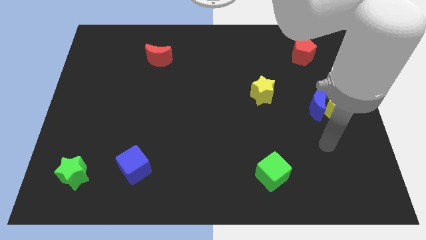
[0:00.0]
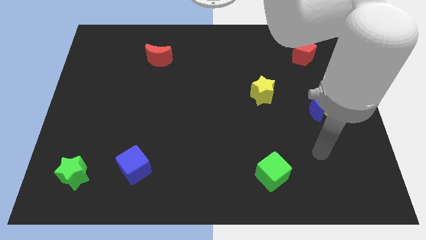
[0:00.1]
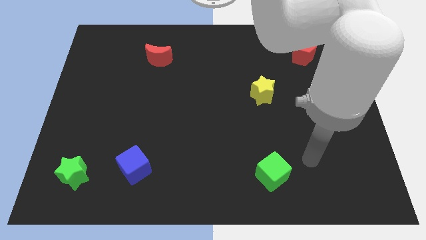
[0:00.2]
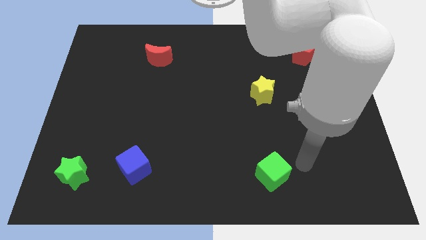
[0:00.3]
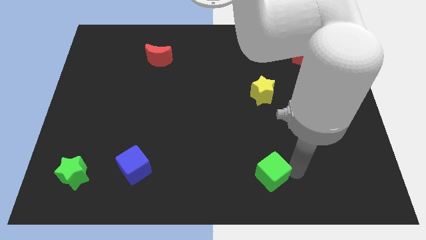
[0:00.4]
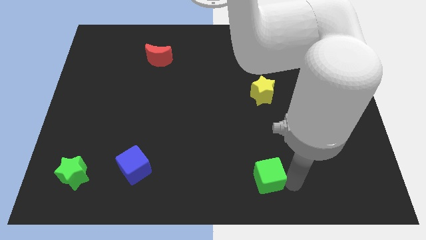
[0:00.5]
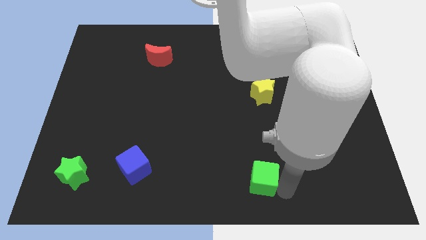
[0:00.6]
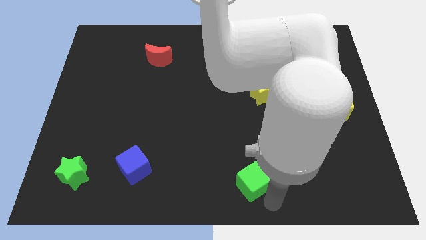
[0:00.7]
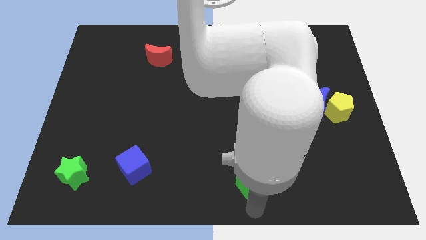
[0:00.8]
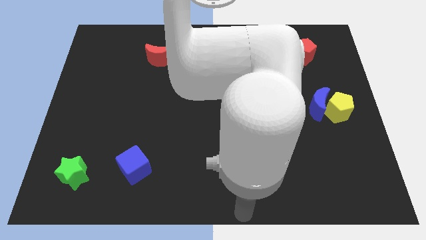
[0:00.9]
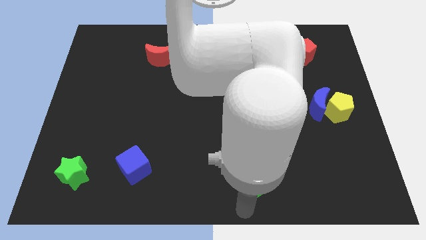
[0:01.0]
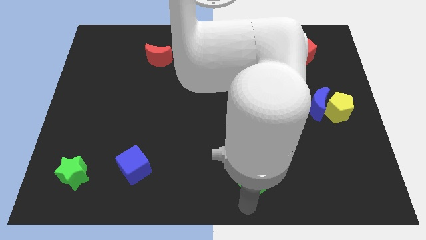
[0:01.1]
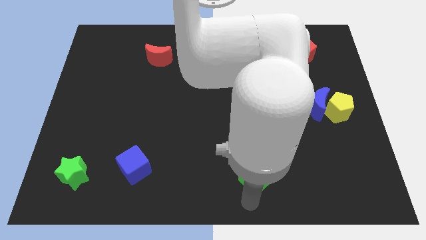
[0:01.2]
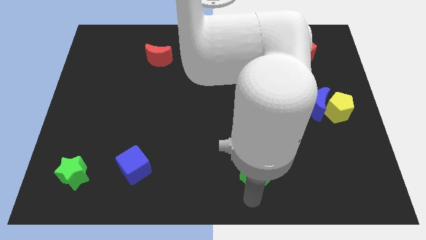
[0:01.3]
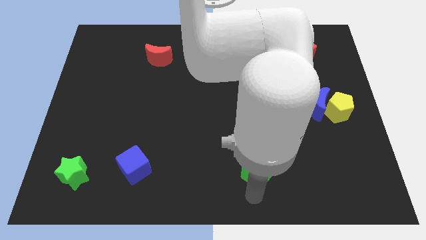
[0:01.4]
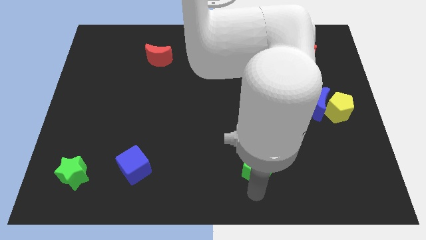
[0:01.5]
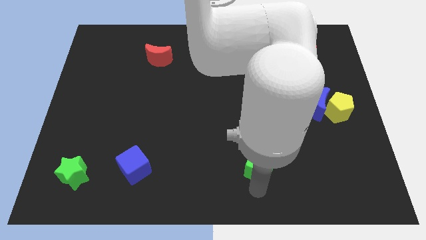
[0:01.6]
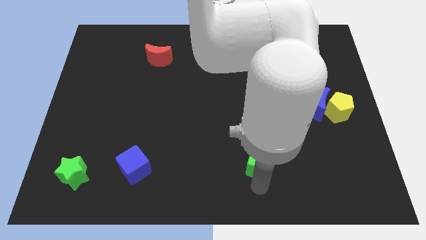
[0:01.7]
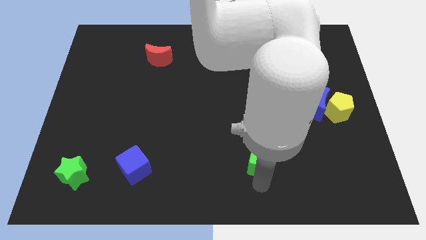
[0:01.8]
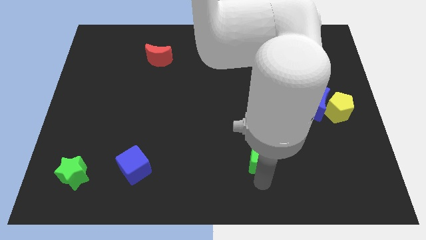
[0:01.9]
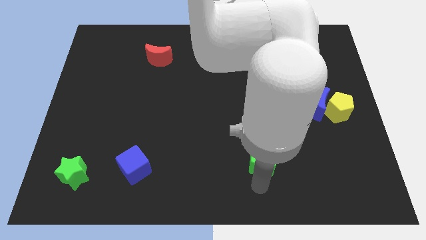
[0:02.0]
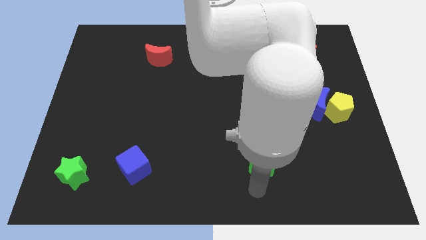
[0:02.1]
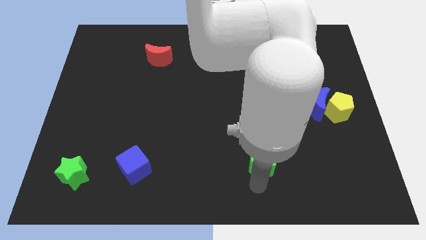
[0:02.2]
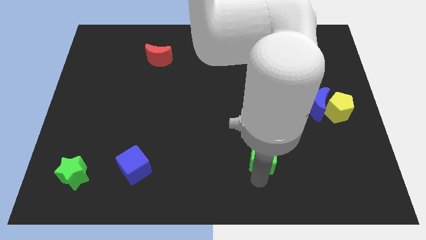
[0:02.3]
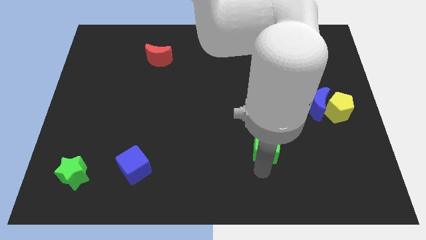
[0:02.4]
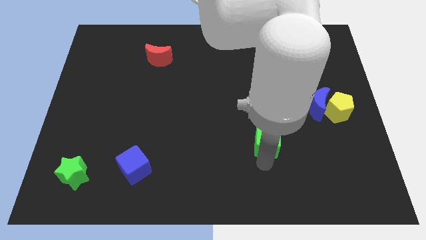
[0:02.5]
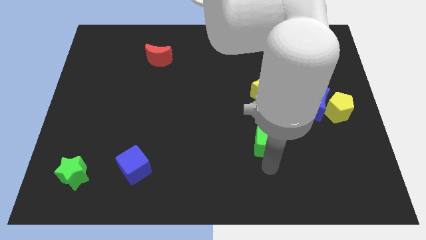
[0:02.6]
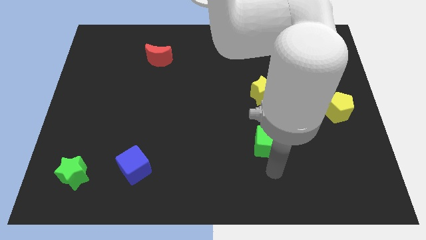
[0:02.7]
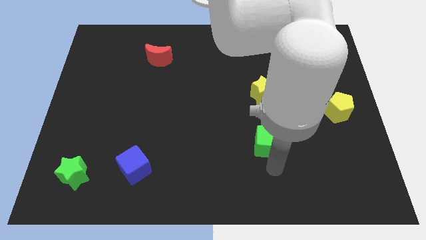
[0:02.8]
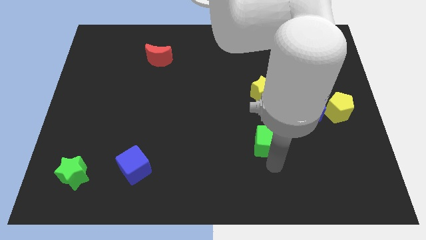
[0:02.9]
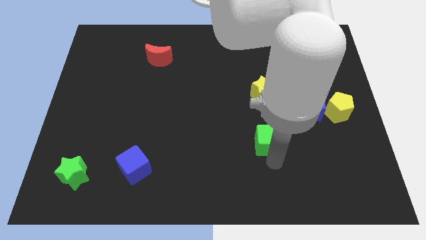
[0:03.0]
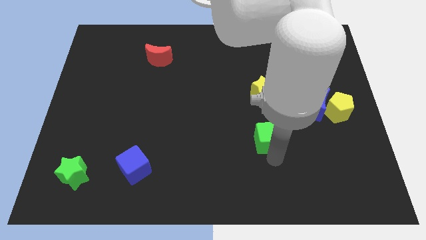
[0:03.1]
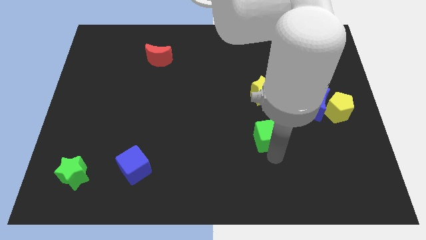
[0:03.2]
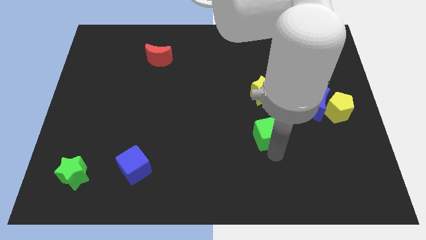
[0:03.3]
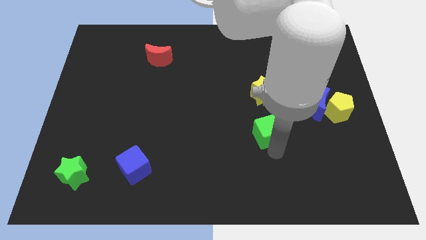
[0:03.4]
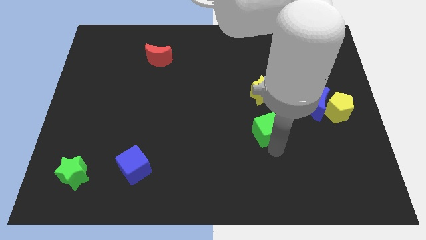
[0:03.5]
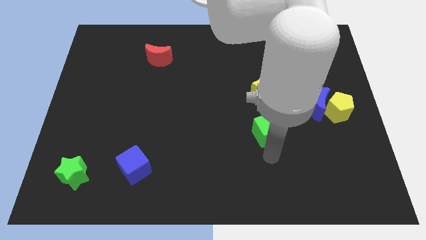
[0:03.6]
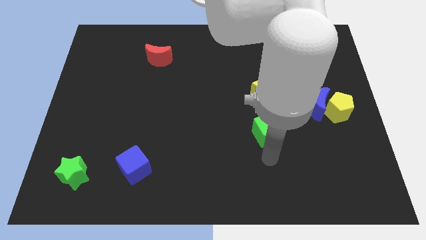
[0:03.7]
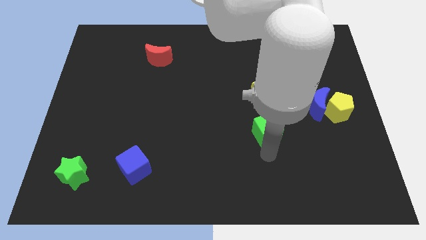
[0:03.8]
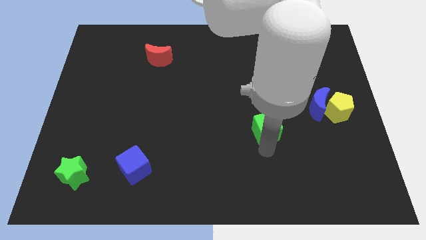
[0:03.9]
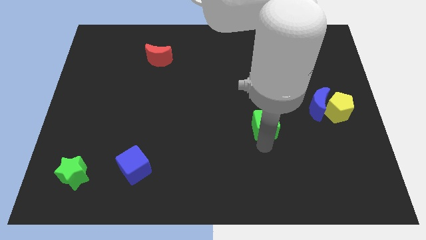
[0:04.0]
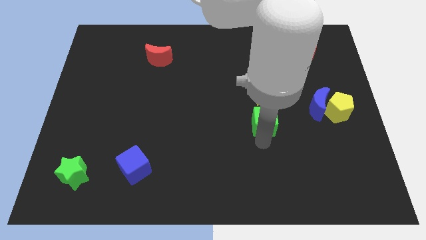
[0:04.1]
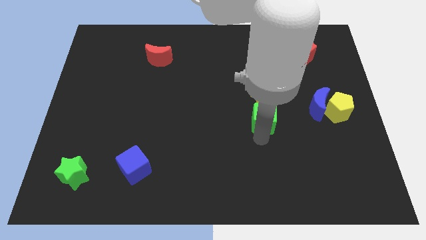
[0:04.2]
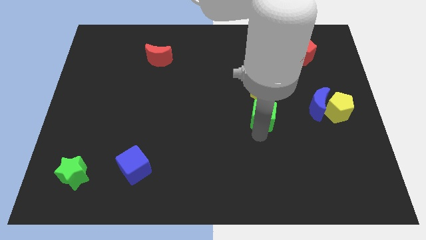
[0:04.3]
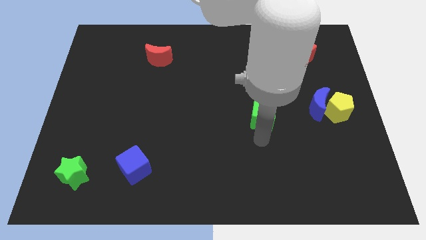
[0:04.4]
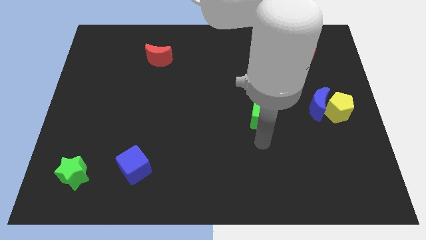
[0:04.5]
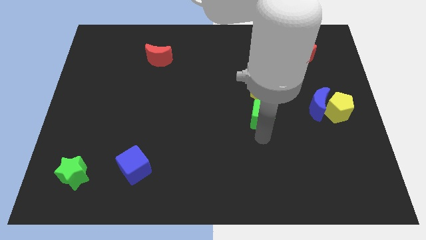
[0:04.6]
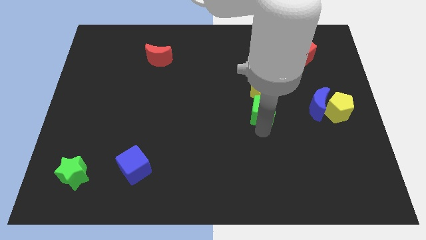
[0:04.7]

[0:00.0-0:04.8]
put the green cube towards the yellow star

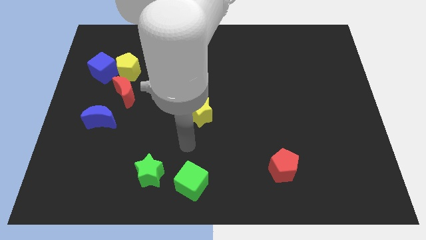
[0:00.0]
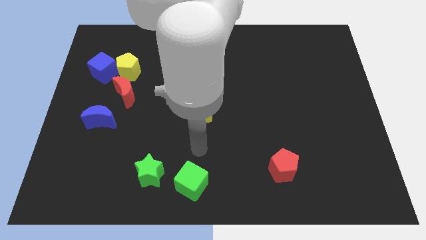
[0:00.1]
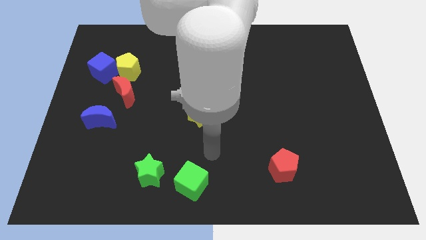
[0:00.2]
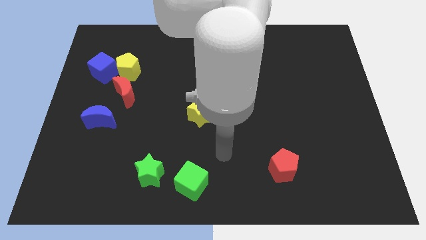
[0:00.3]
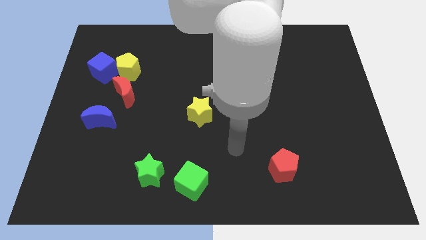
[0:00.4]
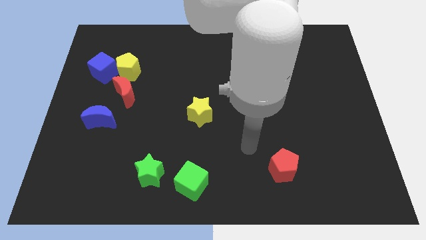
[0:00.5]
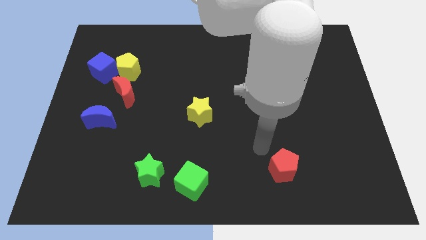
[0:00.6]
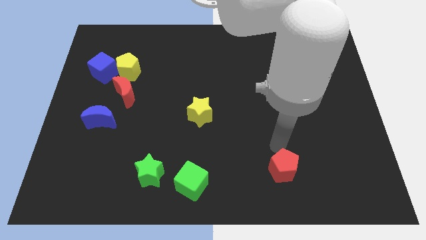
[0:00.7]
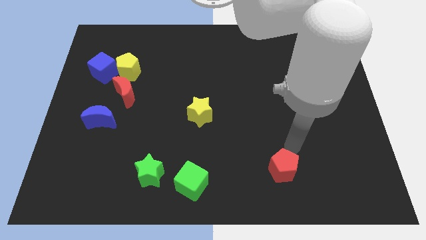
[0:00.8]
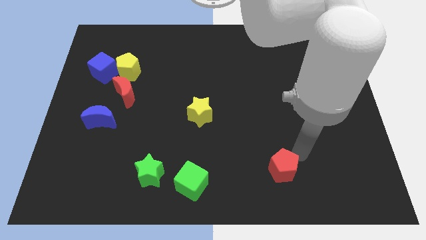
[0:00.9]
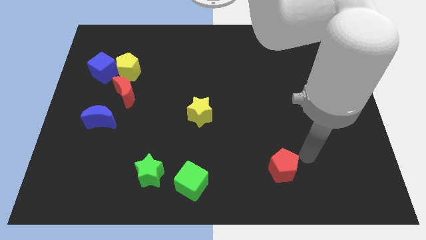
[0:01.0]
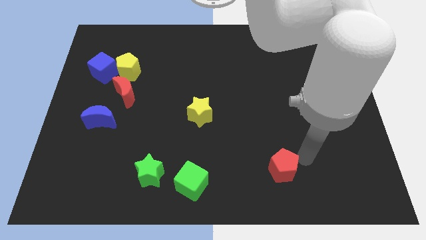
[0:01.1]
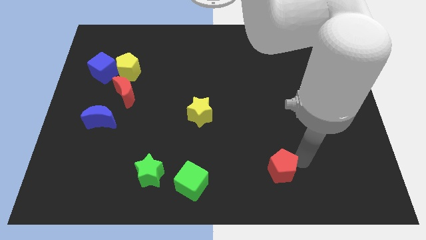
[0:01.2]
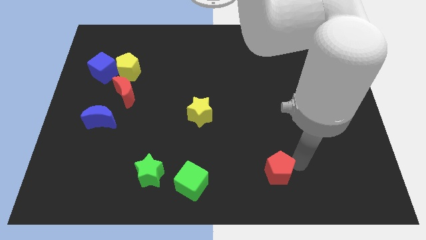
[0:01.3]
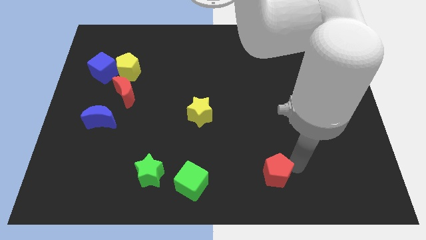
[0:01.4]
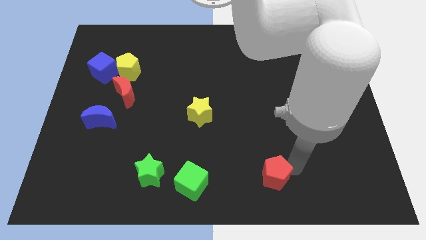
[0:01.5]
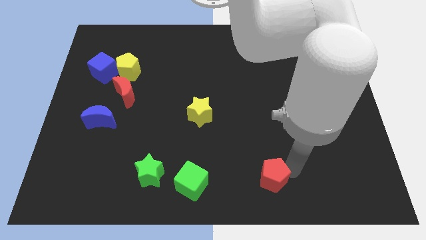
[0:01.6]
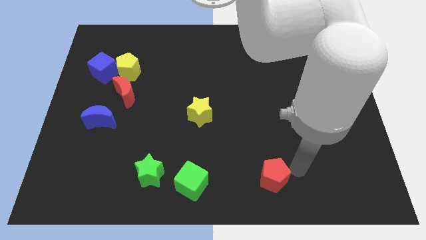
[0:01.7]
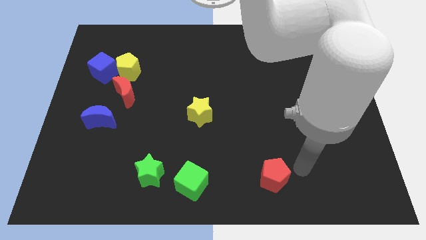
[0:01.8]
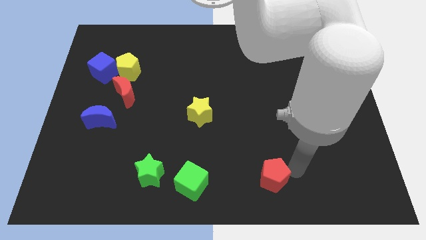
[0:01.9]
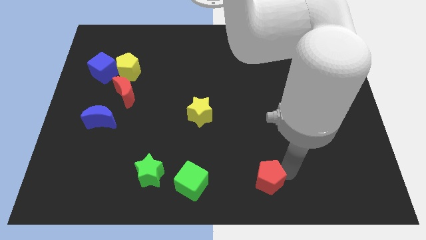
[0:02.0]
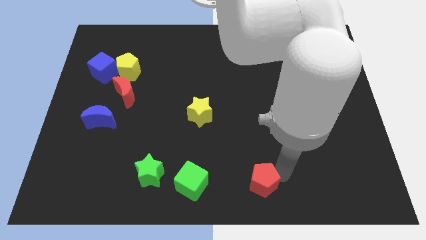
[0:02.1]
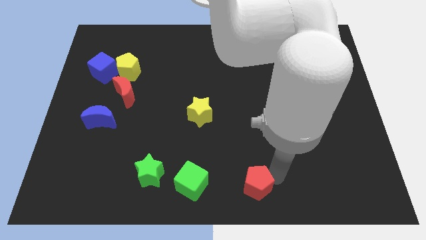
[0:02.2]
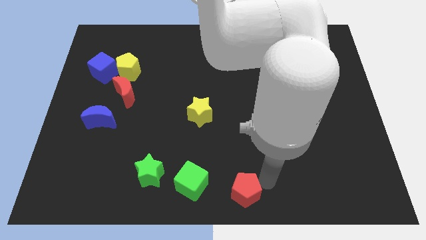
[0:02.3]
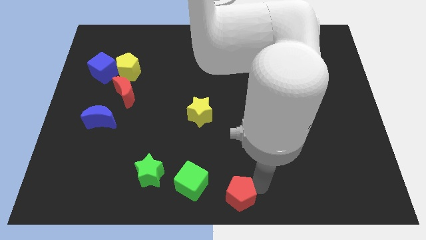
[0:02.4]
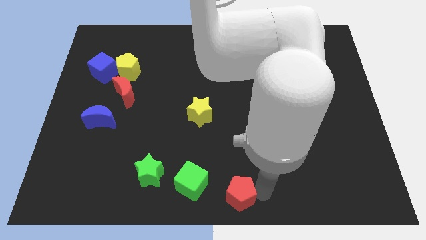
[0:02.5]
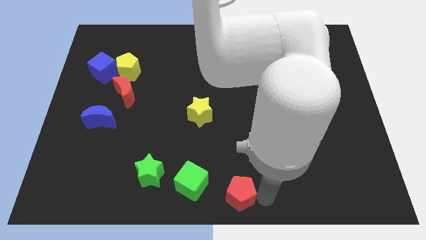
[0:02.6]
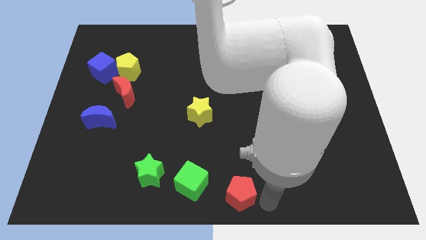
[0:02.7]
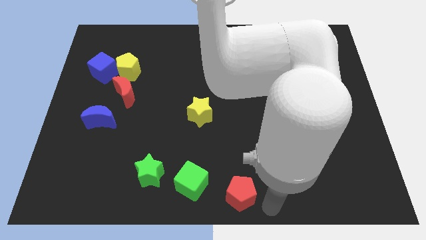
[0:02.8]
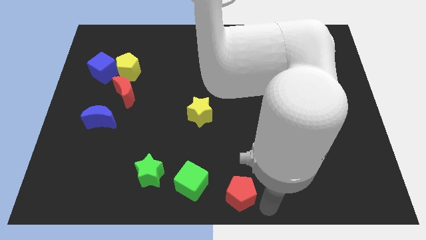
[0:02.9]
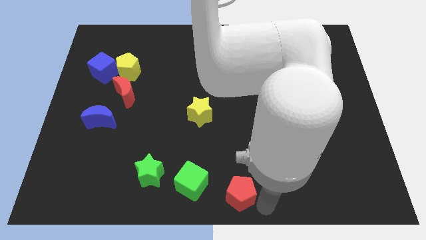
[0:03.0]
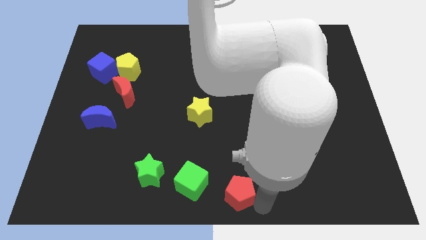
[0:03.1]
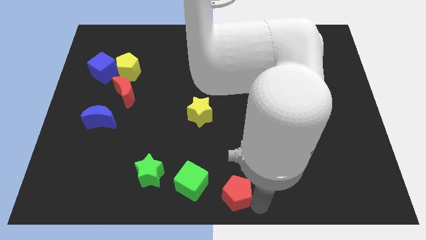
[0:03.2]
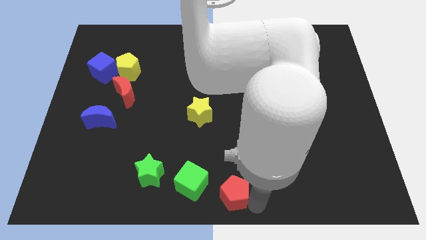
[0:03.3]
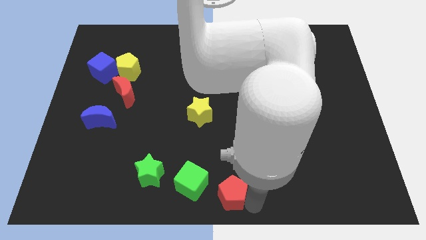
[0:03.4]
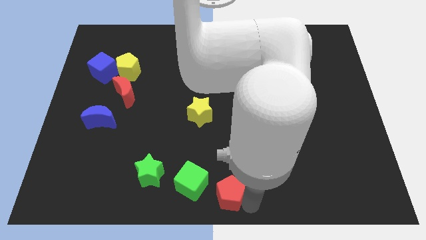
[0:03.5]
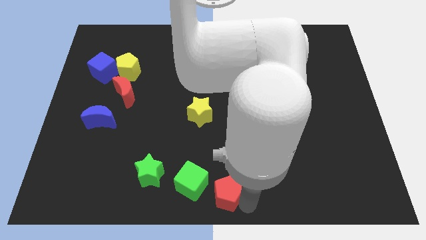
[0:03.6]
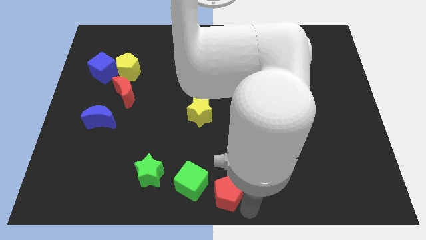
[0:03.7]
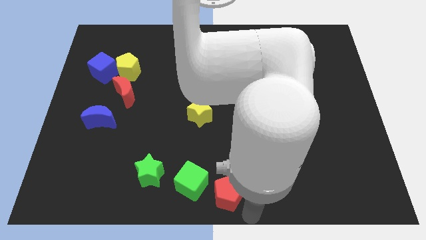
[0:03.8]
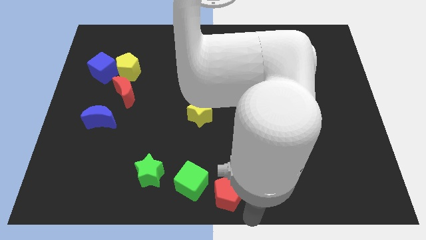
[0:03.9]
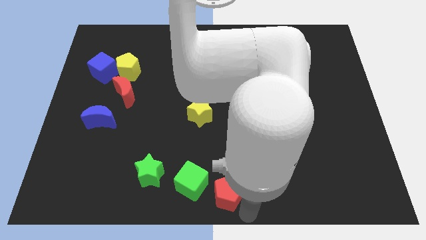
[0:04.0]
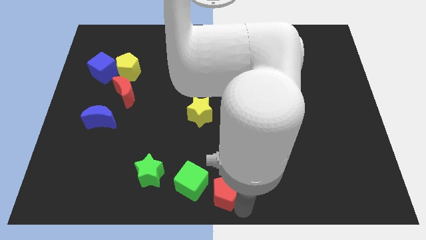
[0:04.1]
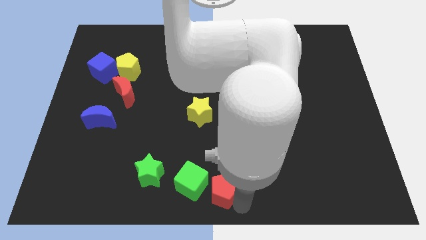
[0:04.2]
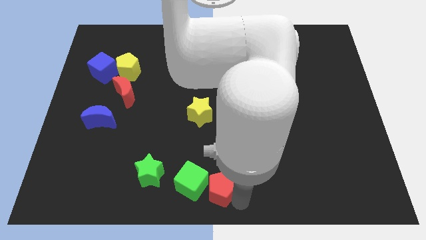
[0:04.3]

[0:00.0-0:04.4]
slide the red pentagon next to the green cube
